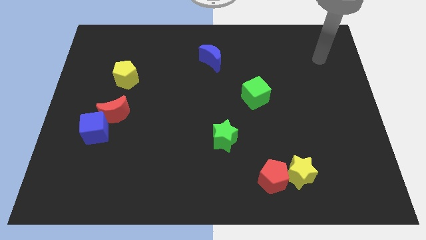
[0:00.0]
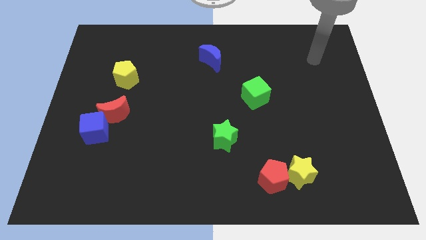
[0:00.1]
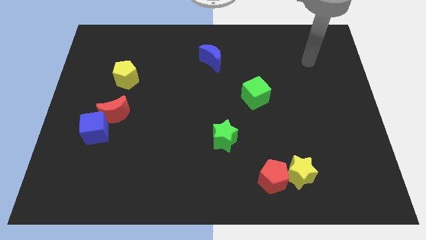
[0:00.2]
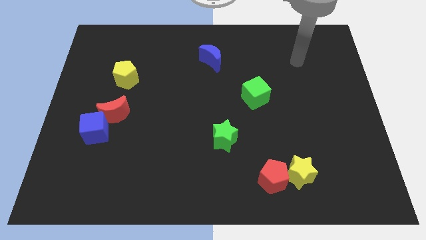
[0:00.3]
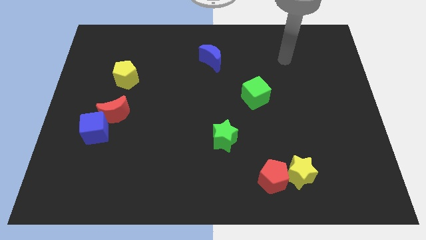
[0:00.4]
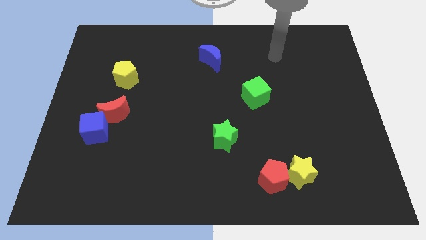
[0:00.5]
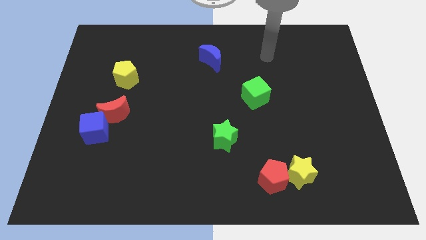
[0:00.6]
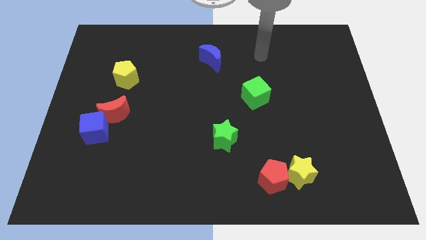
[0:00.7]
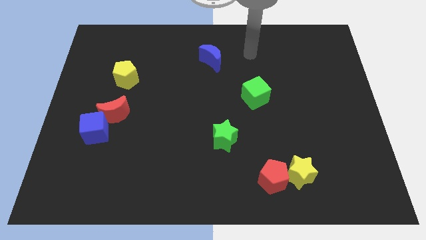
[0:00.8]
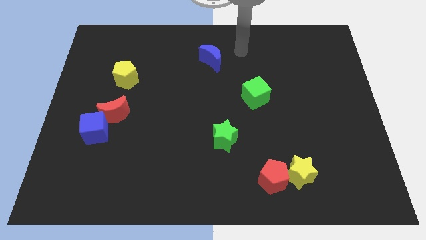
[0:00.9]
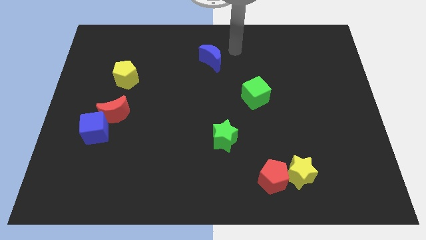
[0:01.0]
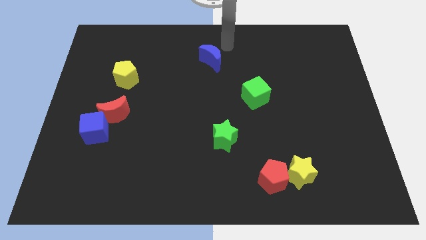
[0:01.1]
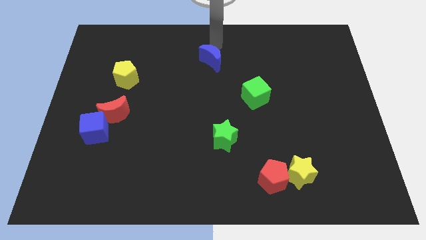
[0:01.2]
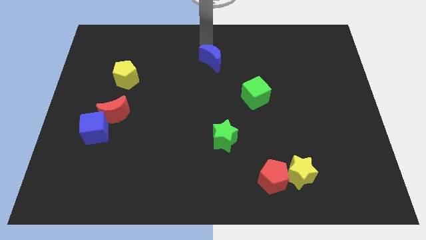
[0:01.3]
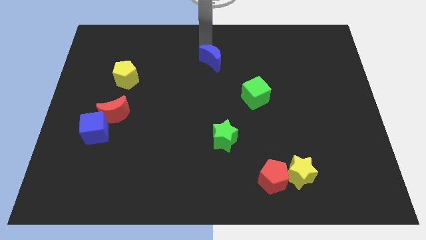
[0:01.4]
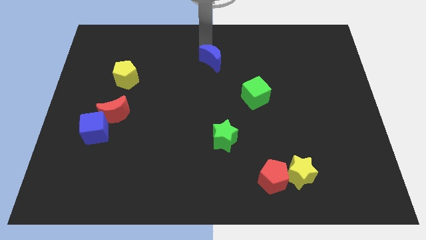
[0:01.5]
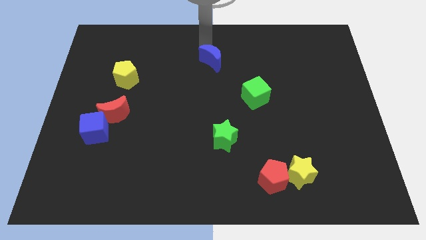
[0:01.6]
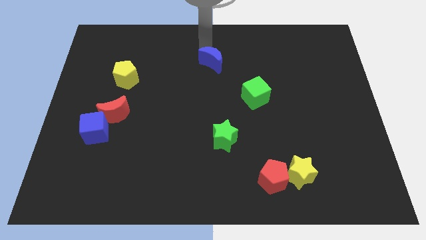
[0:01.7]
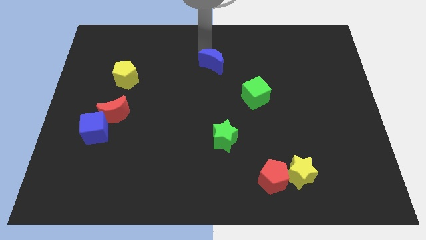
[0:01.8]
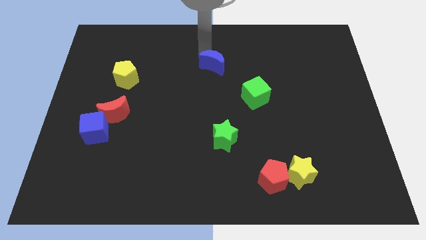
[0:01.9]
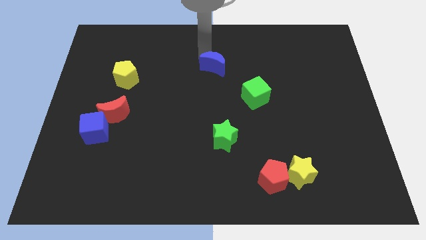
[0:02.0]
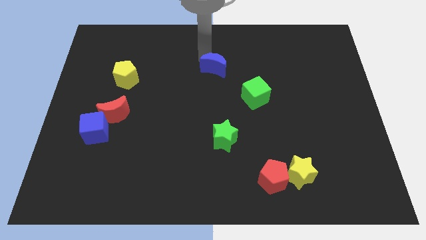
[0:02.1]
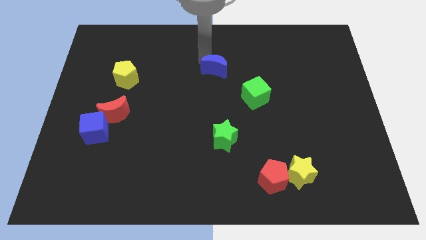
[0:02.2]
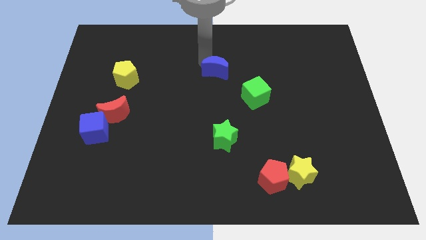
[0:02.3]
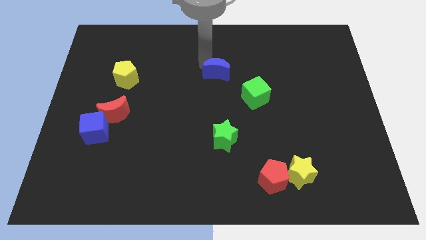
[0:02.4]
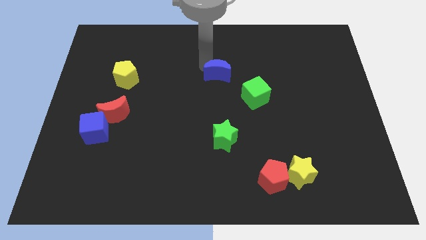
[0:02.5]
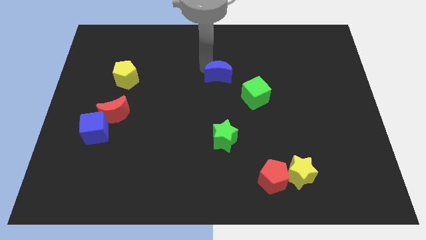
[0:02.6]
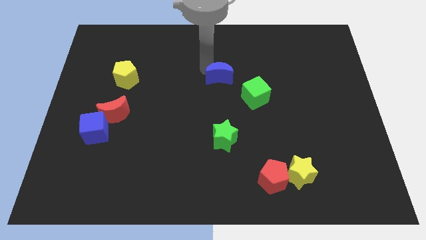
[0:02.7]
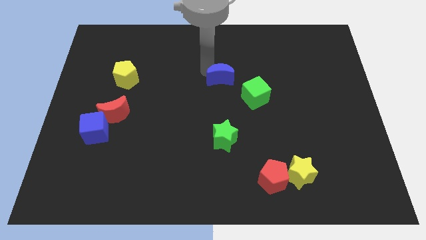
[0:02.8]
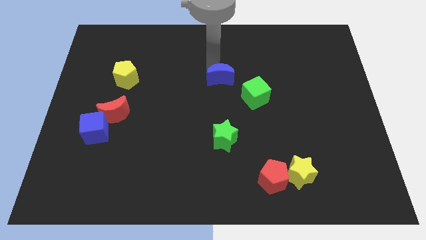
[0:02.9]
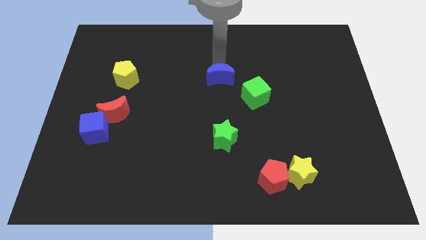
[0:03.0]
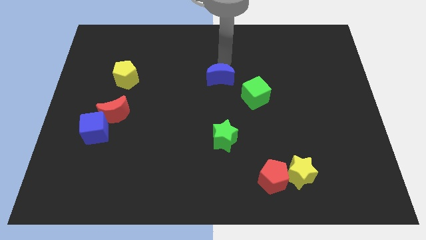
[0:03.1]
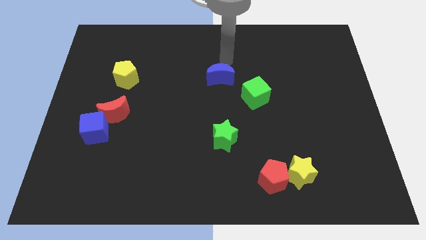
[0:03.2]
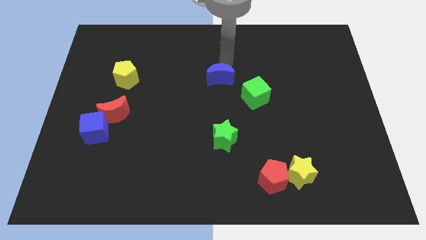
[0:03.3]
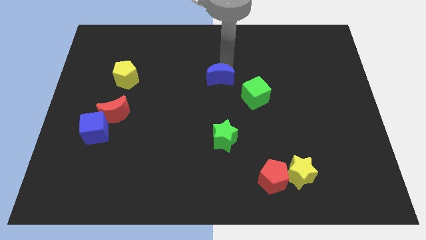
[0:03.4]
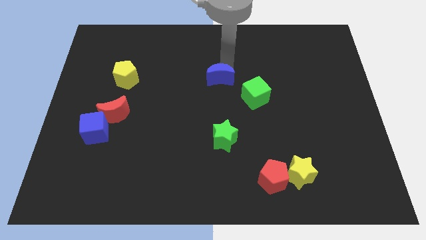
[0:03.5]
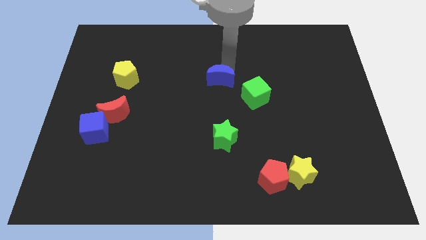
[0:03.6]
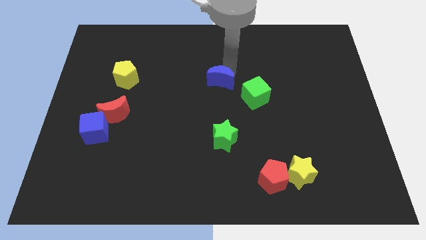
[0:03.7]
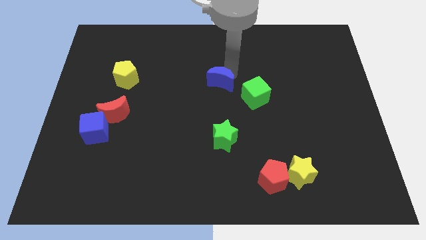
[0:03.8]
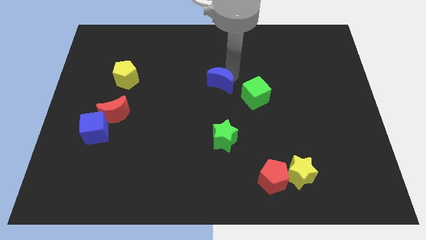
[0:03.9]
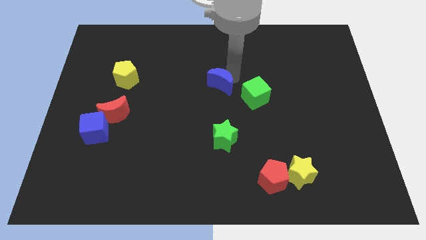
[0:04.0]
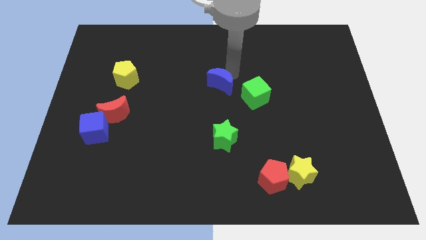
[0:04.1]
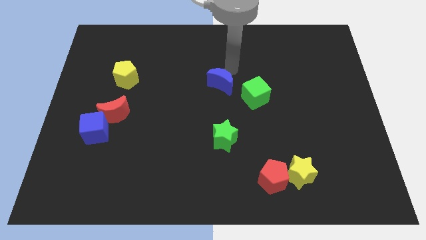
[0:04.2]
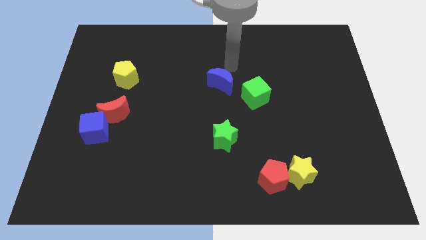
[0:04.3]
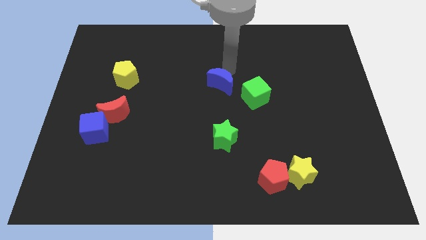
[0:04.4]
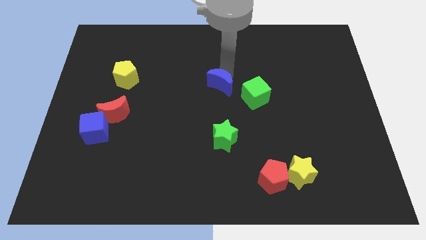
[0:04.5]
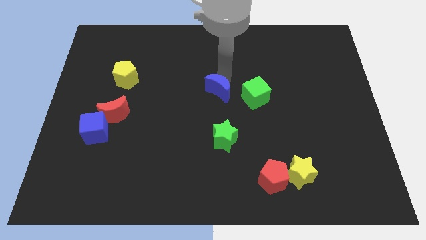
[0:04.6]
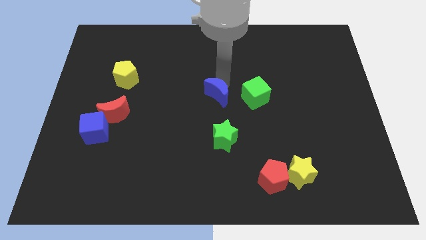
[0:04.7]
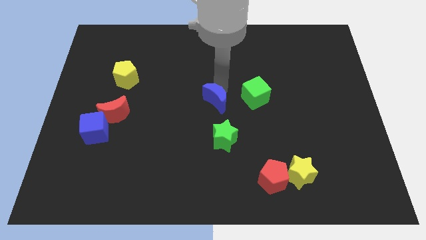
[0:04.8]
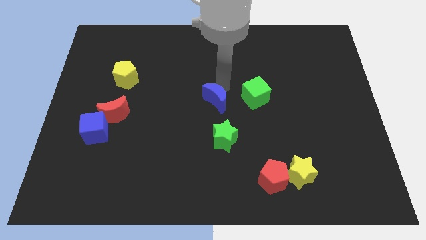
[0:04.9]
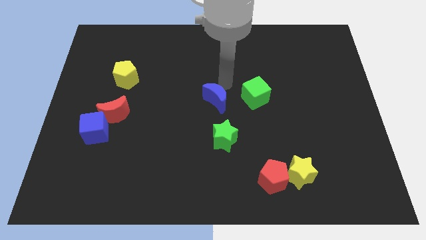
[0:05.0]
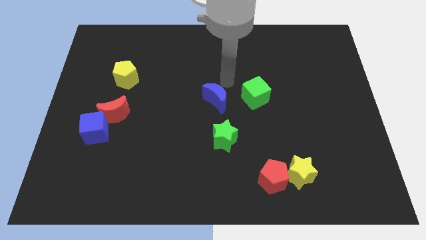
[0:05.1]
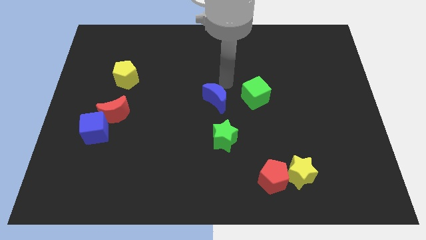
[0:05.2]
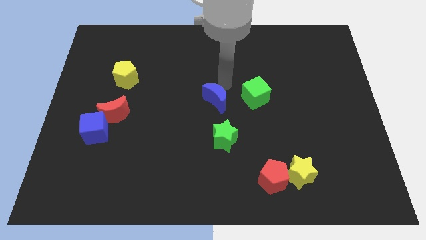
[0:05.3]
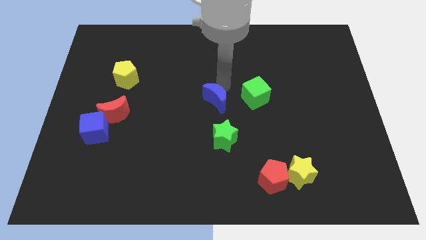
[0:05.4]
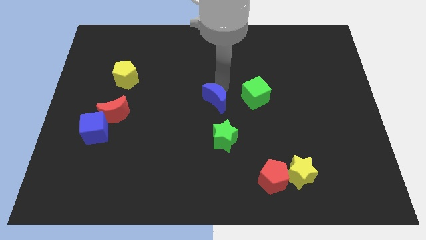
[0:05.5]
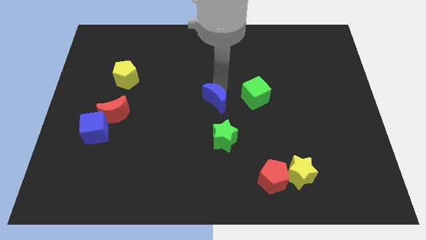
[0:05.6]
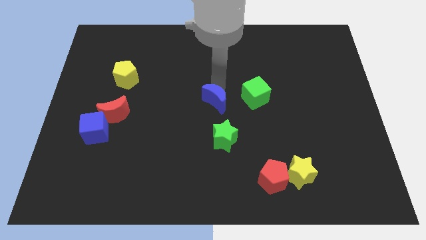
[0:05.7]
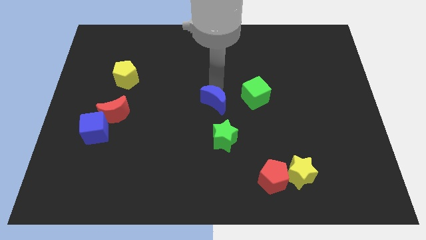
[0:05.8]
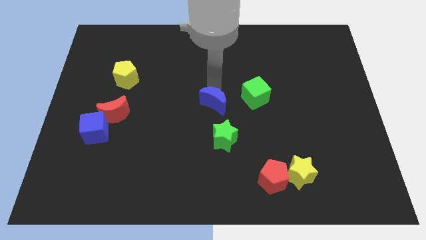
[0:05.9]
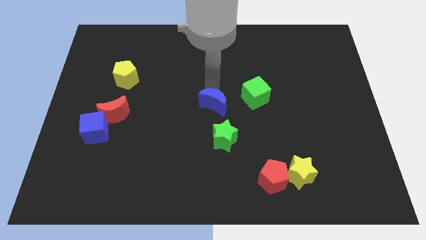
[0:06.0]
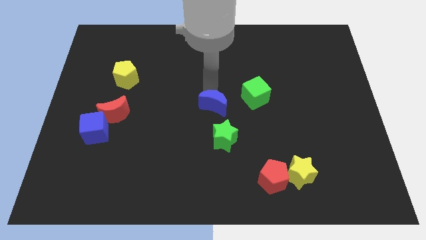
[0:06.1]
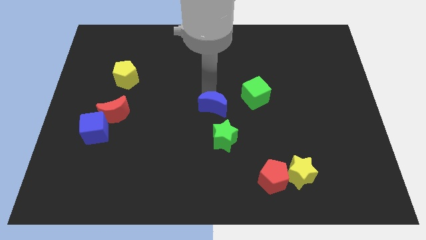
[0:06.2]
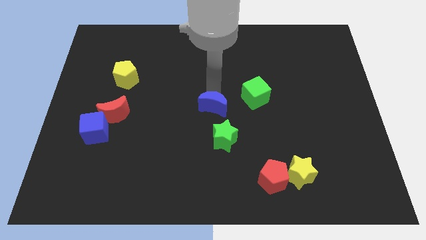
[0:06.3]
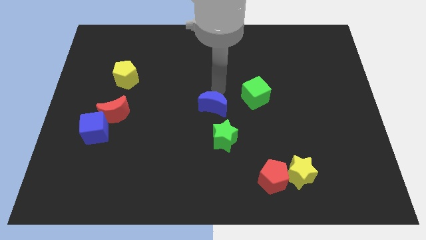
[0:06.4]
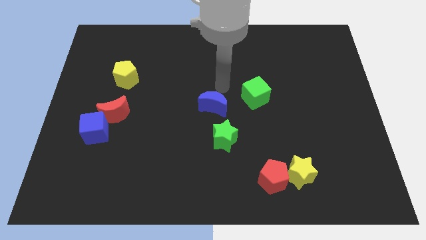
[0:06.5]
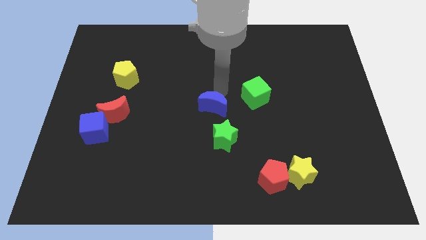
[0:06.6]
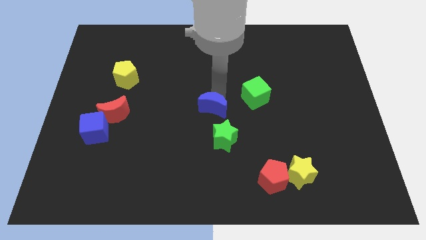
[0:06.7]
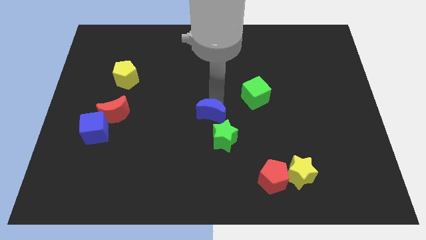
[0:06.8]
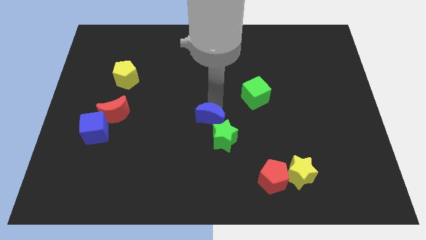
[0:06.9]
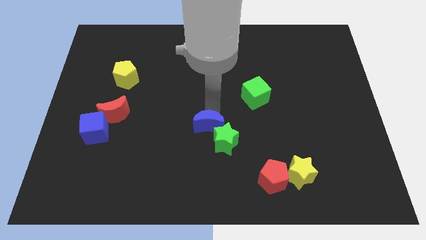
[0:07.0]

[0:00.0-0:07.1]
move the blue moon down

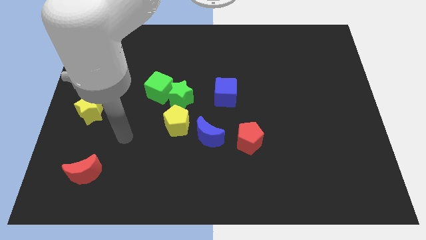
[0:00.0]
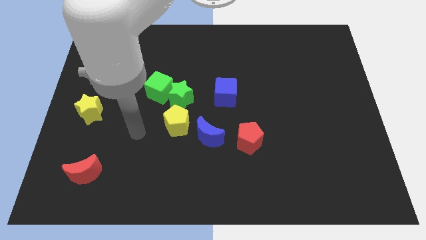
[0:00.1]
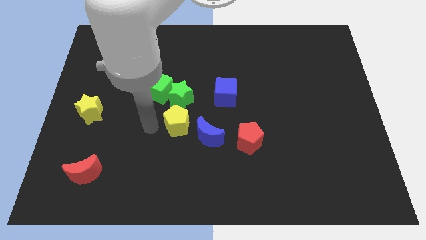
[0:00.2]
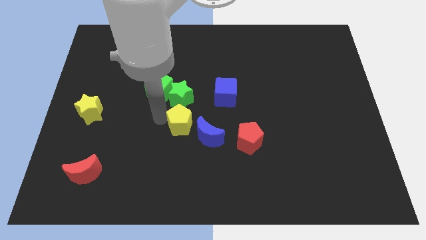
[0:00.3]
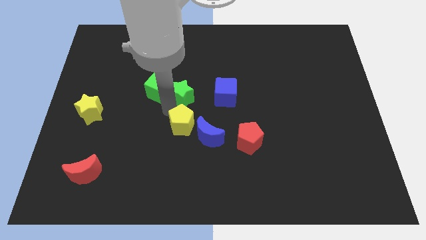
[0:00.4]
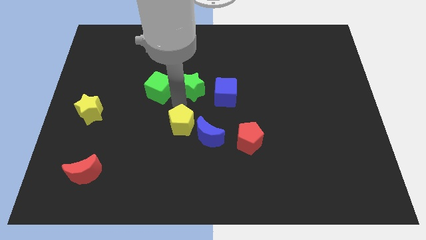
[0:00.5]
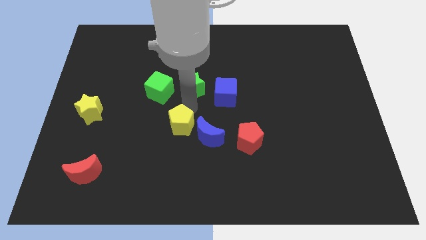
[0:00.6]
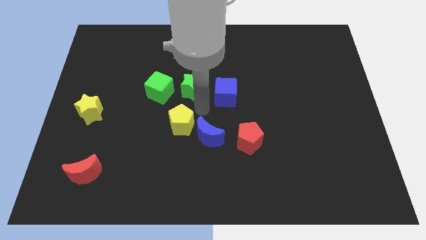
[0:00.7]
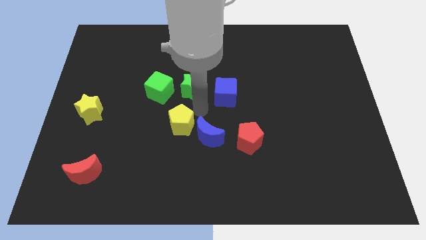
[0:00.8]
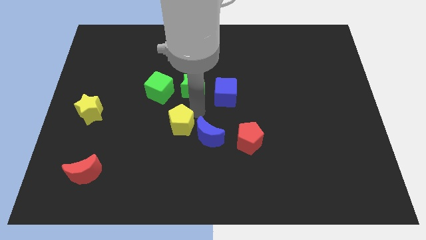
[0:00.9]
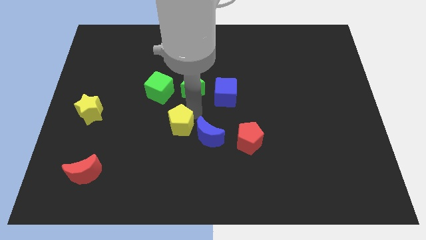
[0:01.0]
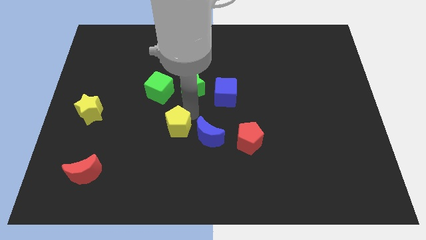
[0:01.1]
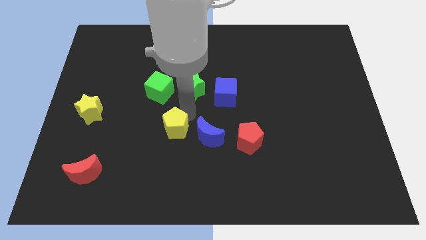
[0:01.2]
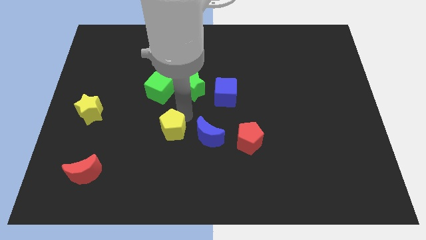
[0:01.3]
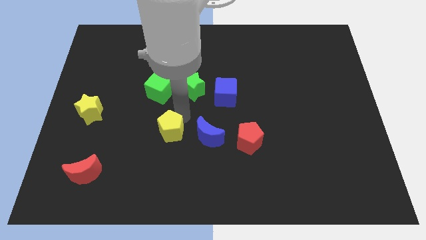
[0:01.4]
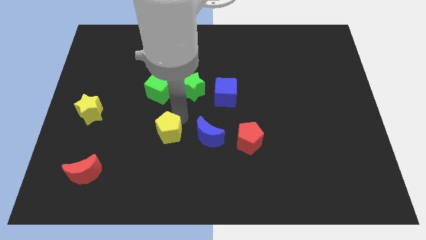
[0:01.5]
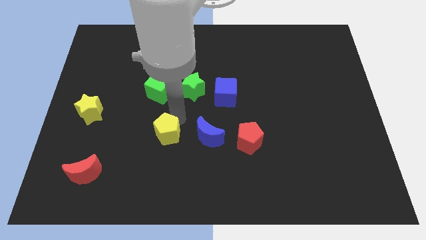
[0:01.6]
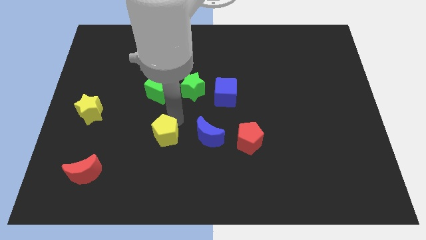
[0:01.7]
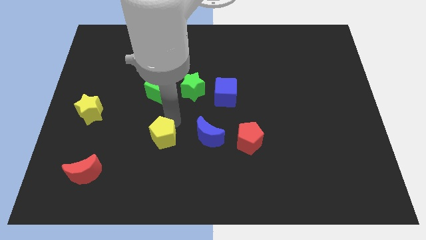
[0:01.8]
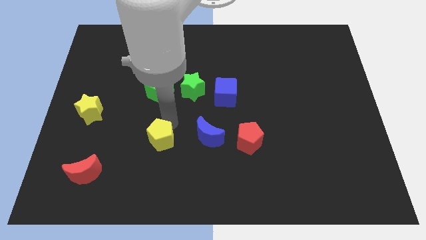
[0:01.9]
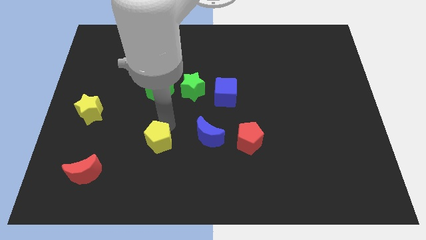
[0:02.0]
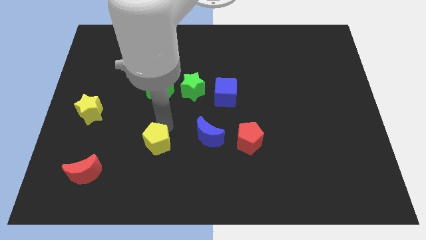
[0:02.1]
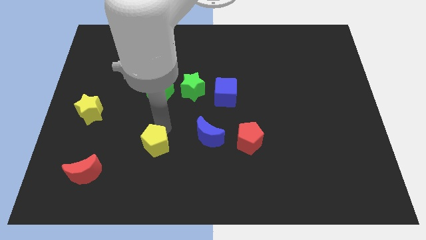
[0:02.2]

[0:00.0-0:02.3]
move the yellow pentagon a little down and then to the left
